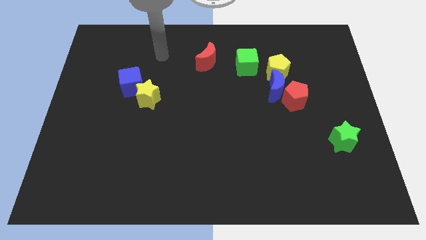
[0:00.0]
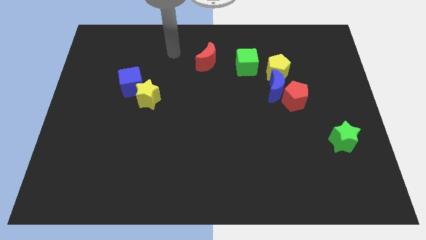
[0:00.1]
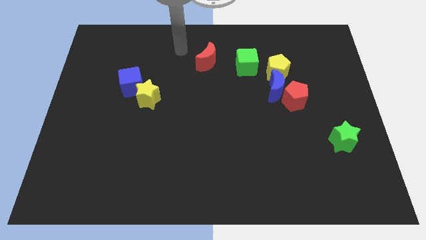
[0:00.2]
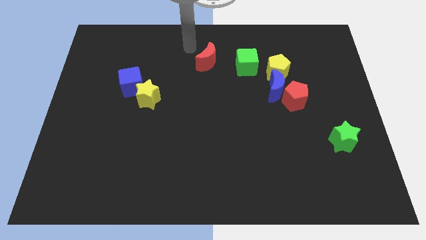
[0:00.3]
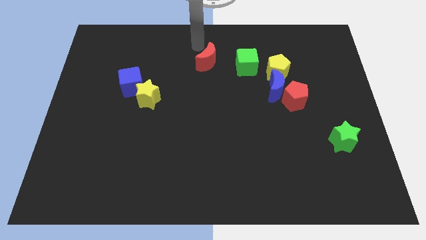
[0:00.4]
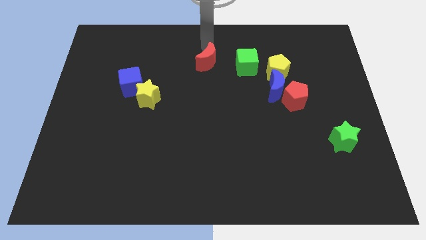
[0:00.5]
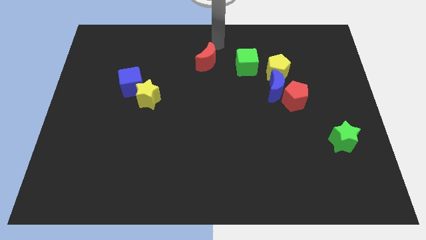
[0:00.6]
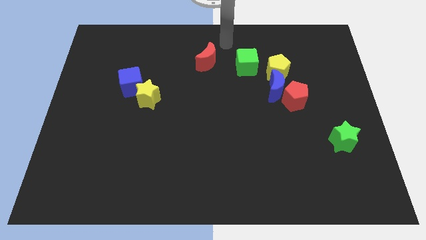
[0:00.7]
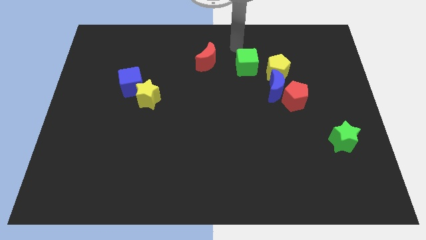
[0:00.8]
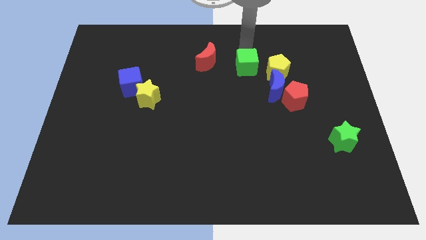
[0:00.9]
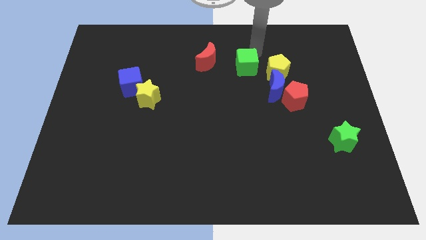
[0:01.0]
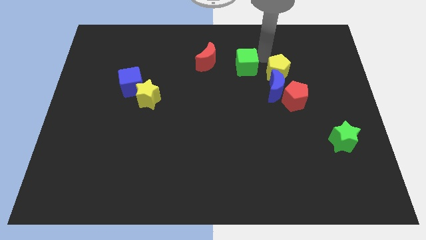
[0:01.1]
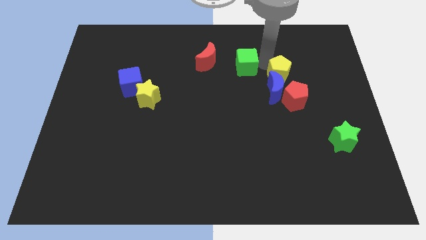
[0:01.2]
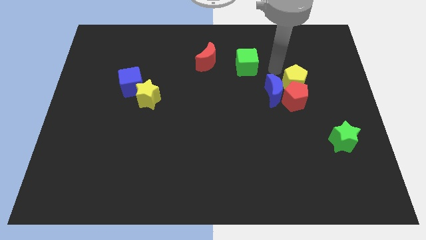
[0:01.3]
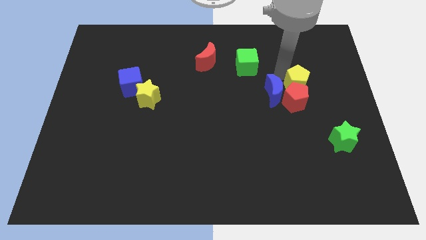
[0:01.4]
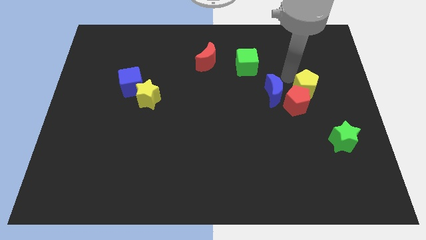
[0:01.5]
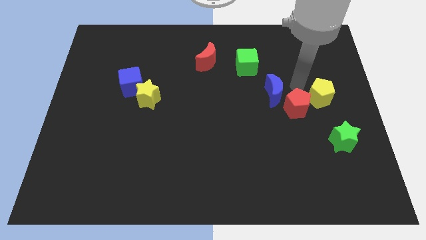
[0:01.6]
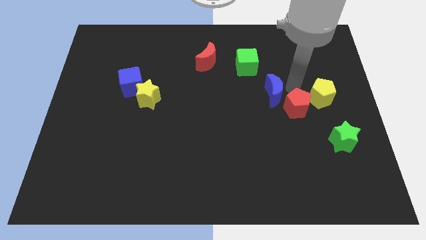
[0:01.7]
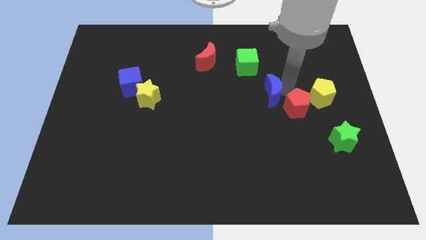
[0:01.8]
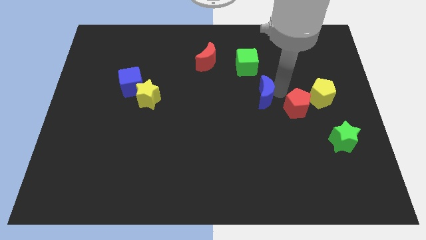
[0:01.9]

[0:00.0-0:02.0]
separate the blue moon from the red pentagon and yellow pentagon

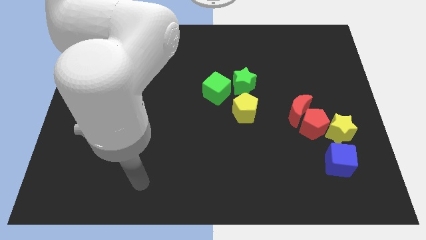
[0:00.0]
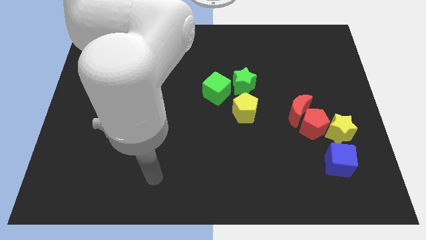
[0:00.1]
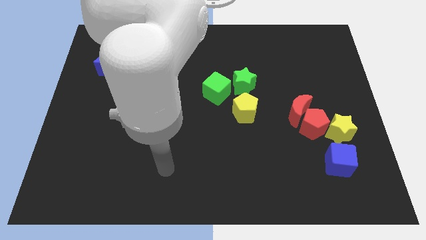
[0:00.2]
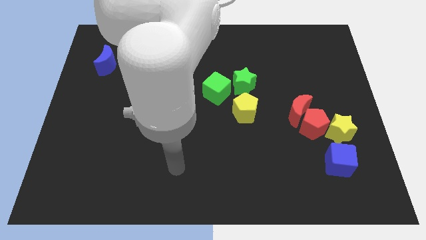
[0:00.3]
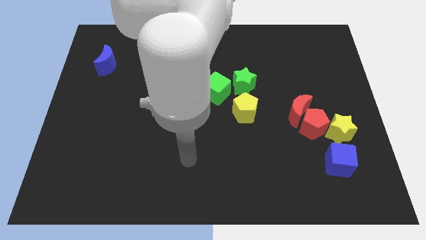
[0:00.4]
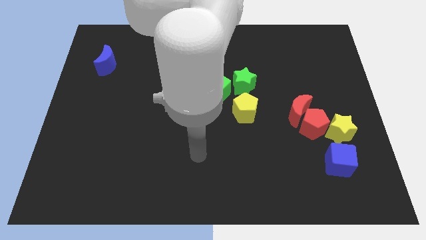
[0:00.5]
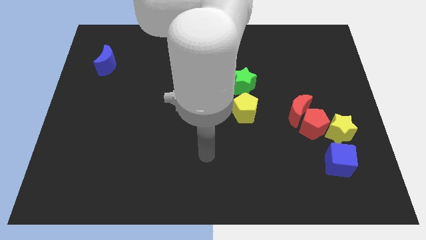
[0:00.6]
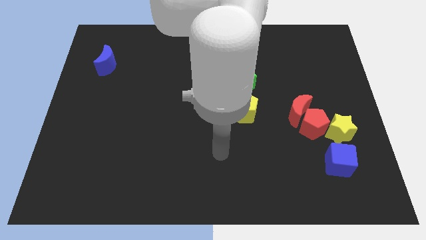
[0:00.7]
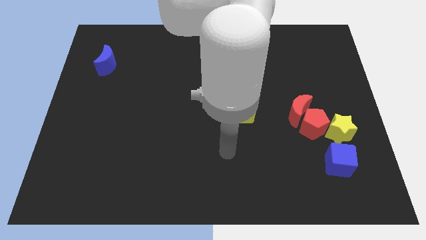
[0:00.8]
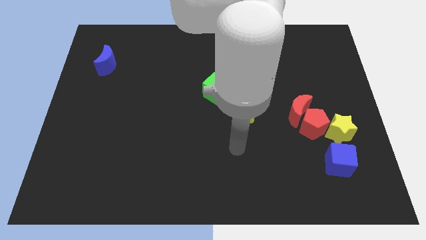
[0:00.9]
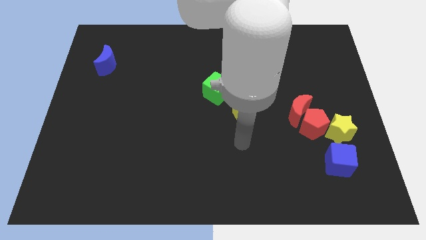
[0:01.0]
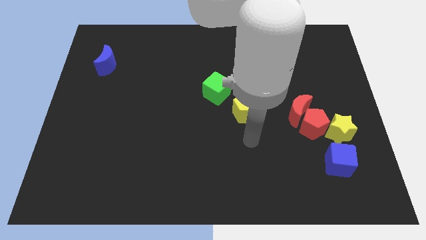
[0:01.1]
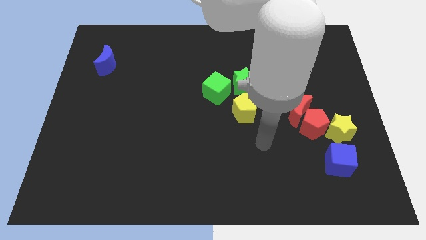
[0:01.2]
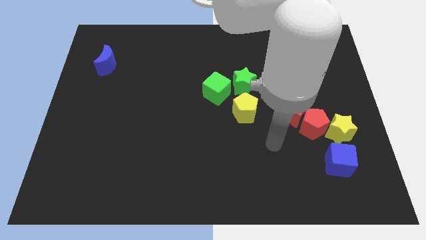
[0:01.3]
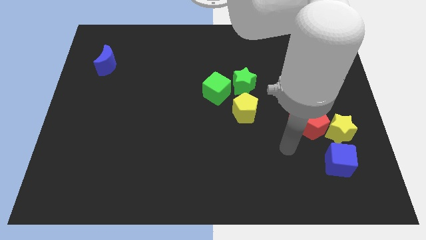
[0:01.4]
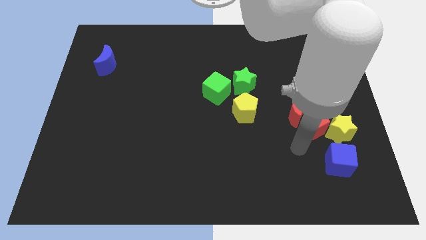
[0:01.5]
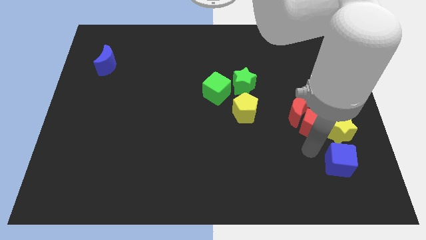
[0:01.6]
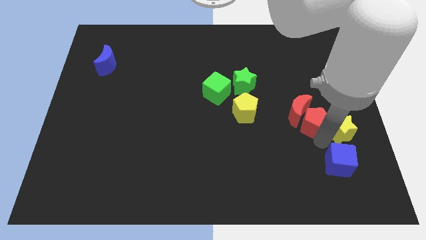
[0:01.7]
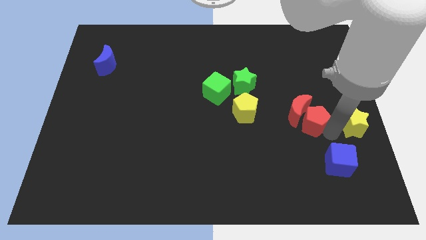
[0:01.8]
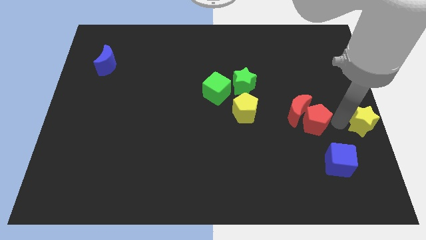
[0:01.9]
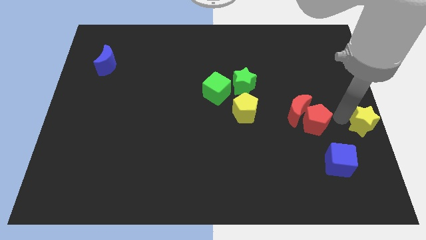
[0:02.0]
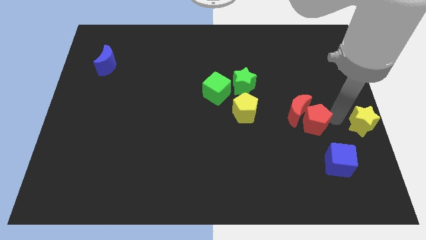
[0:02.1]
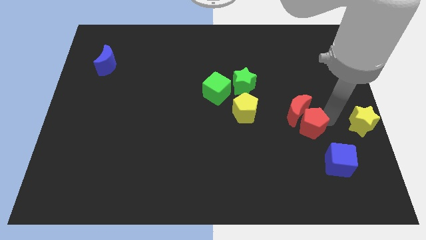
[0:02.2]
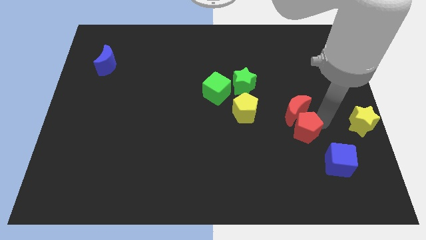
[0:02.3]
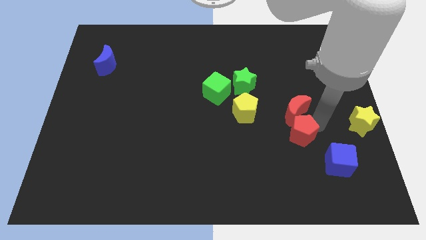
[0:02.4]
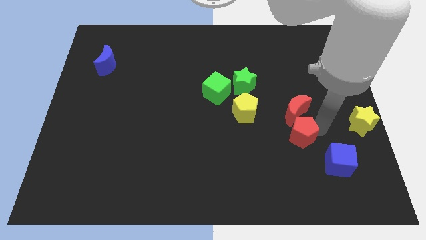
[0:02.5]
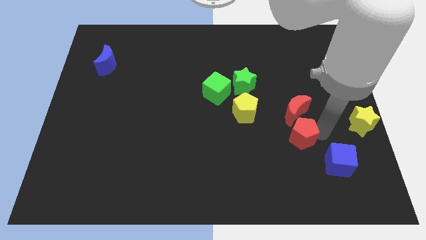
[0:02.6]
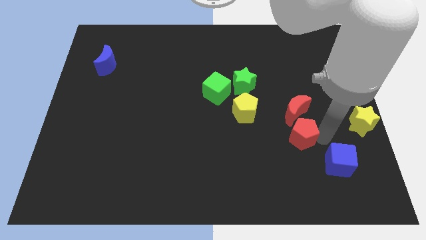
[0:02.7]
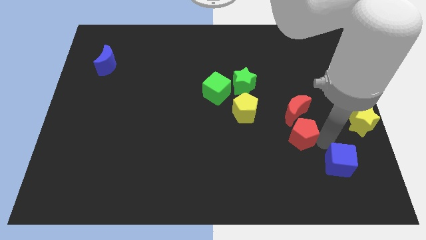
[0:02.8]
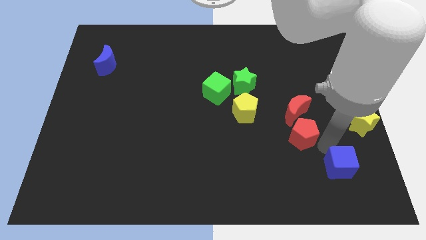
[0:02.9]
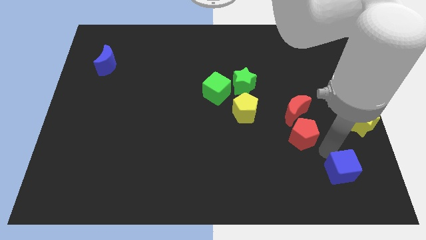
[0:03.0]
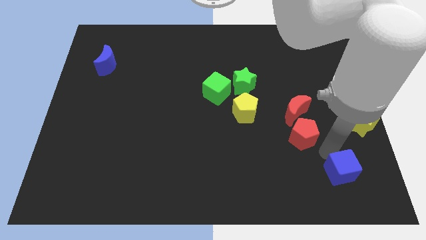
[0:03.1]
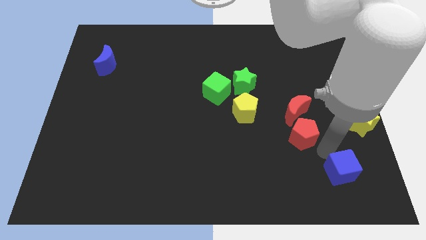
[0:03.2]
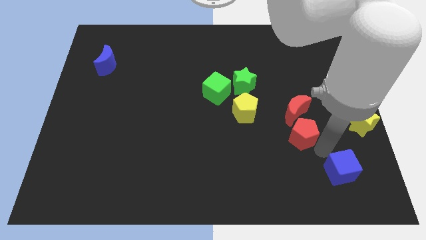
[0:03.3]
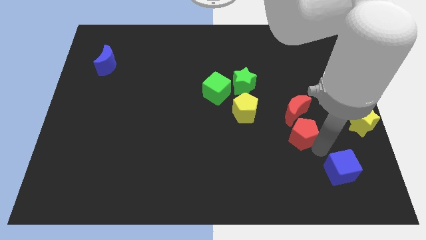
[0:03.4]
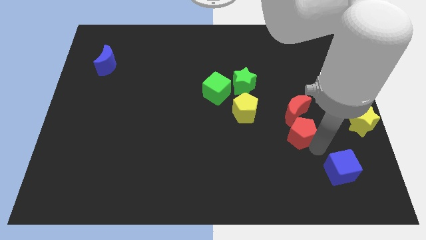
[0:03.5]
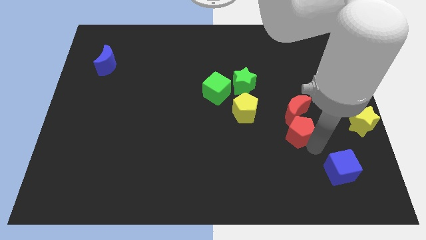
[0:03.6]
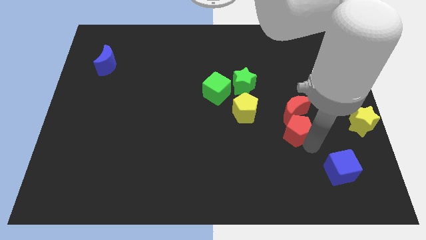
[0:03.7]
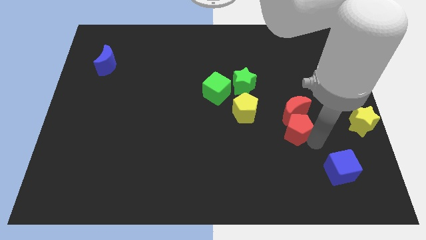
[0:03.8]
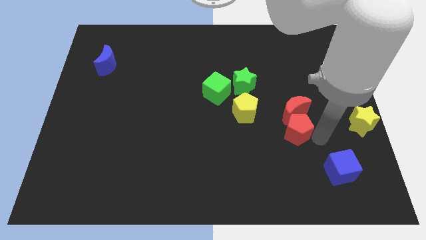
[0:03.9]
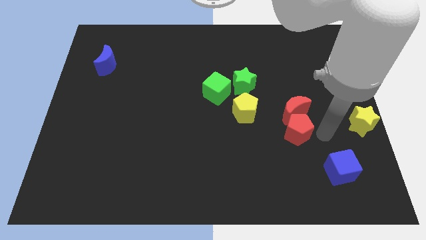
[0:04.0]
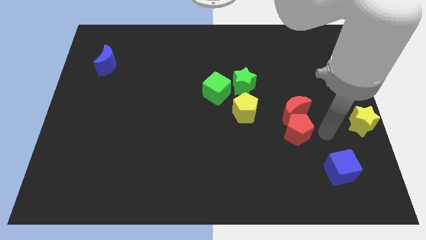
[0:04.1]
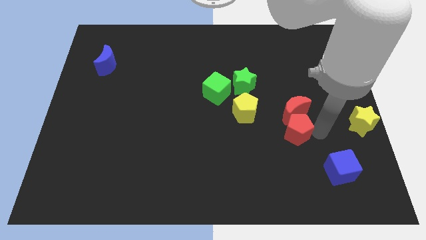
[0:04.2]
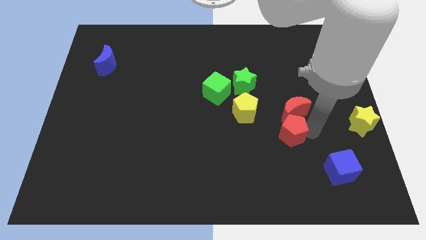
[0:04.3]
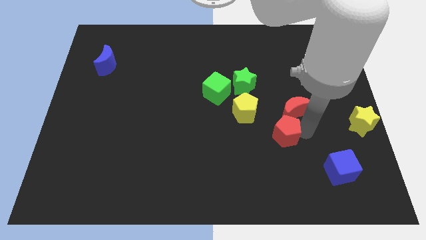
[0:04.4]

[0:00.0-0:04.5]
move the red pentagon away from the clump

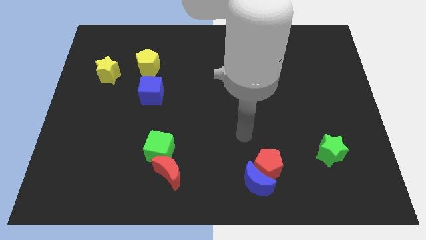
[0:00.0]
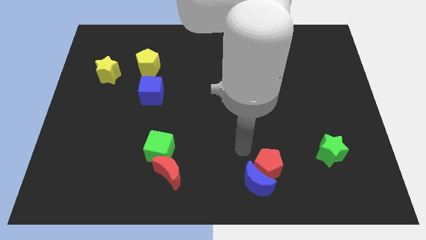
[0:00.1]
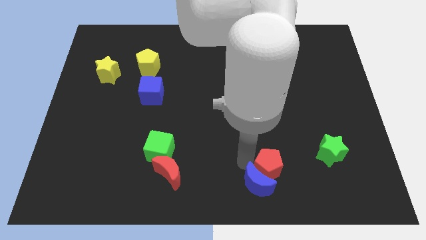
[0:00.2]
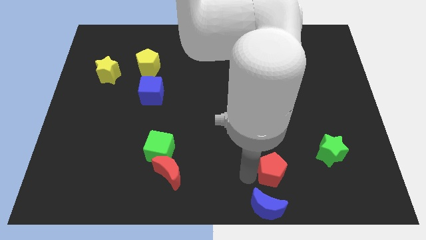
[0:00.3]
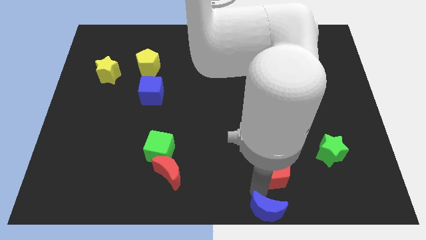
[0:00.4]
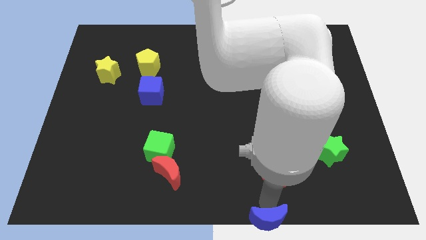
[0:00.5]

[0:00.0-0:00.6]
move the red pentagon away from the blue moon

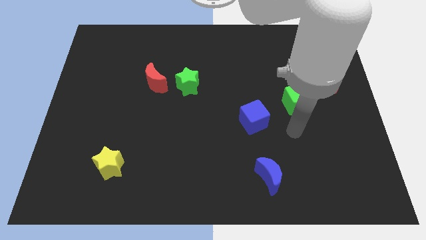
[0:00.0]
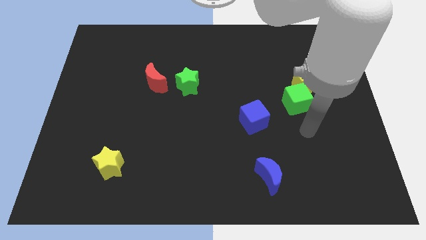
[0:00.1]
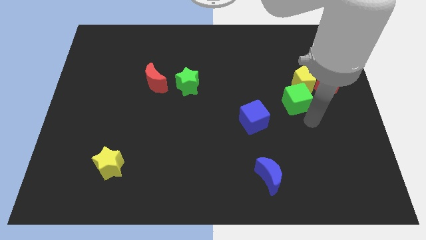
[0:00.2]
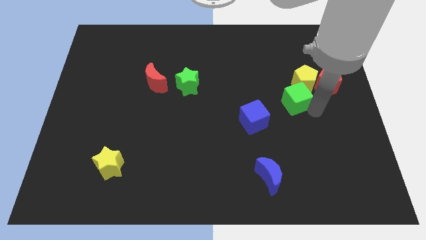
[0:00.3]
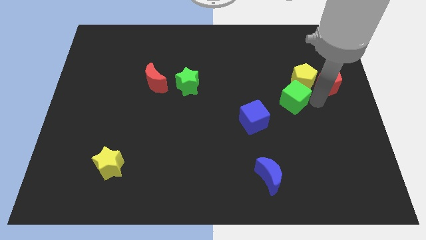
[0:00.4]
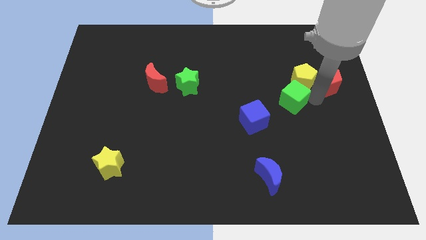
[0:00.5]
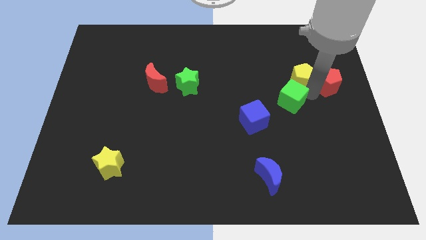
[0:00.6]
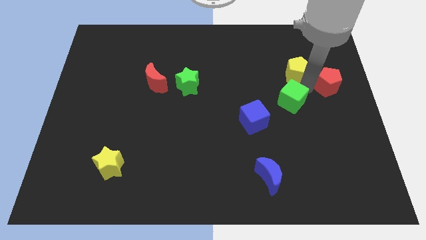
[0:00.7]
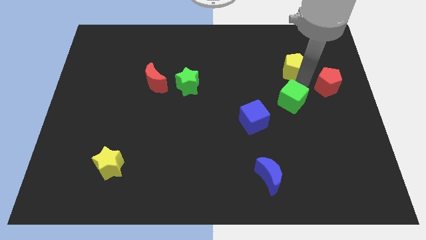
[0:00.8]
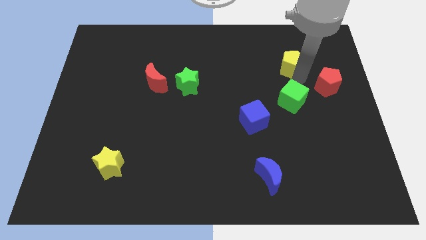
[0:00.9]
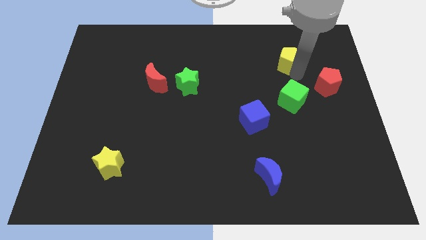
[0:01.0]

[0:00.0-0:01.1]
move the yellow pentagon away from the red pentagon and green cube

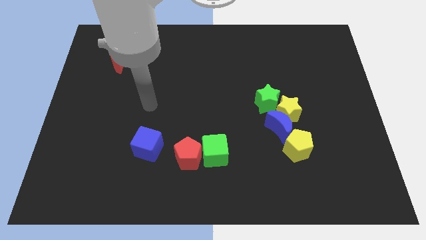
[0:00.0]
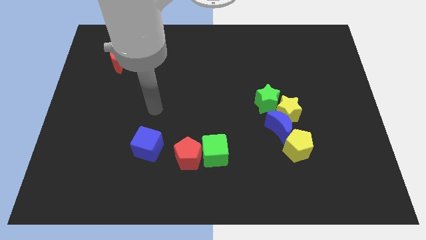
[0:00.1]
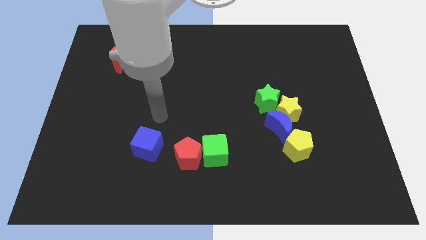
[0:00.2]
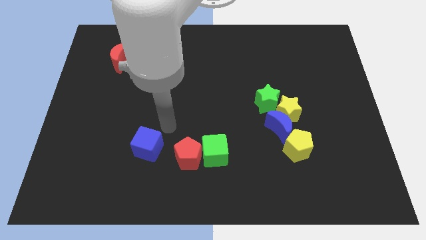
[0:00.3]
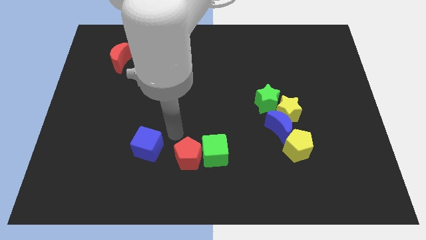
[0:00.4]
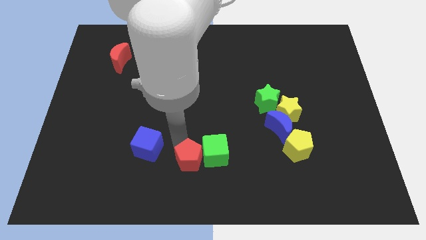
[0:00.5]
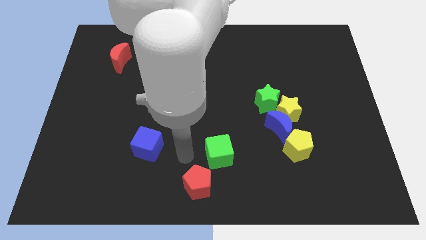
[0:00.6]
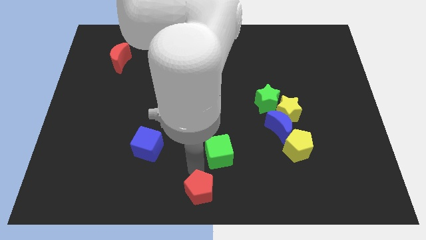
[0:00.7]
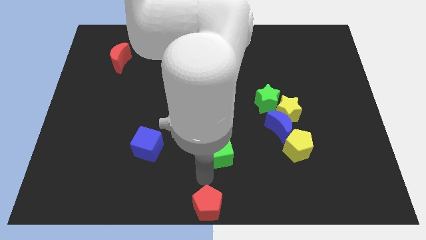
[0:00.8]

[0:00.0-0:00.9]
pull the green cube apart from the red pentagon
